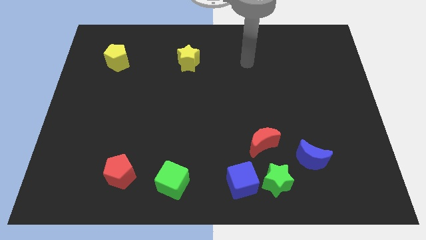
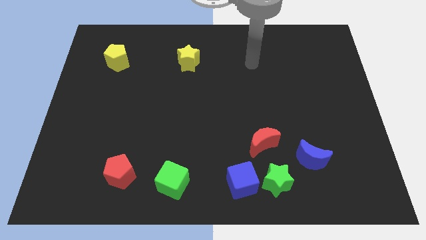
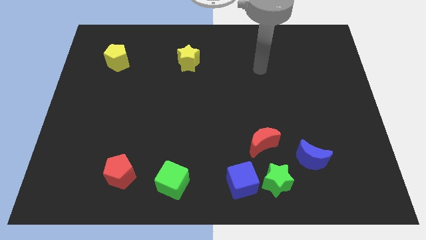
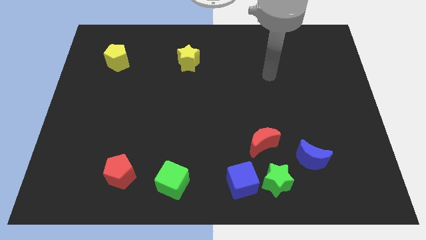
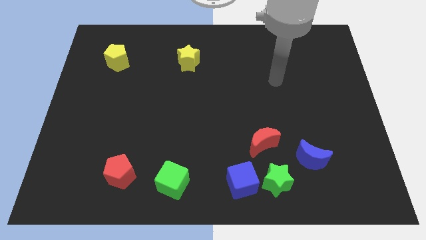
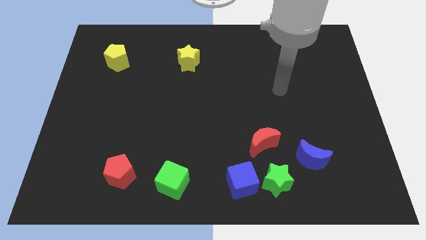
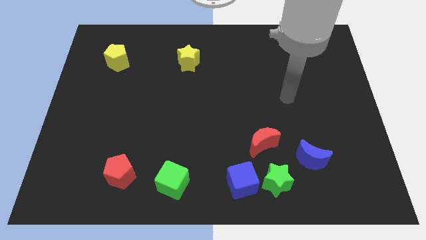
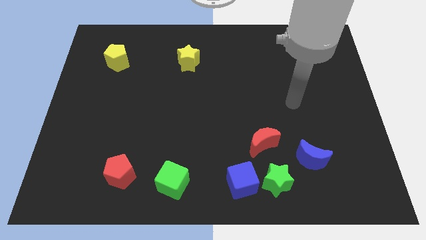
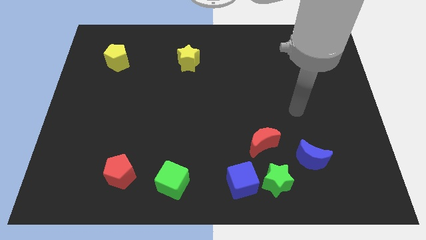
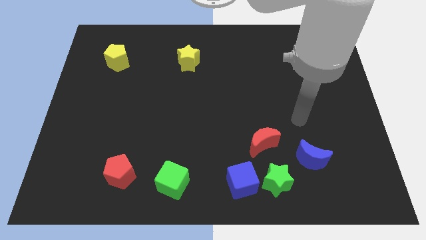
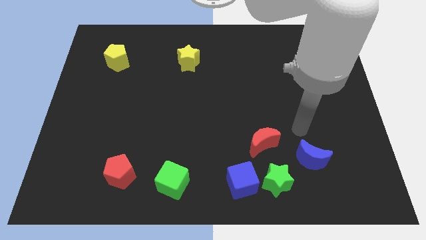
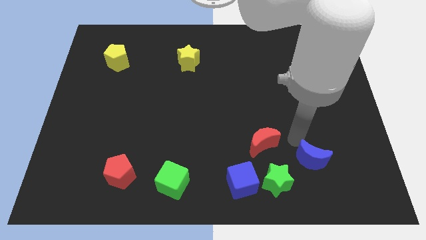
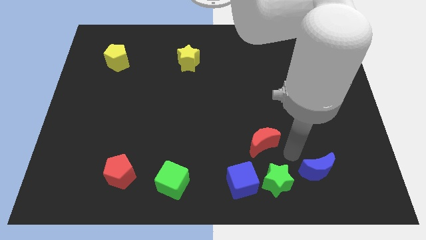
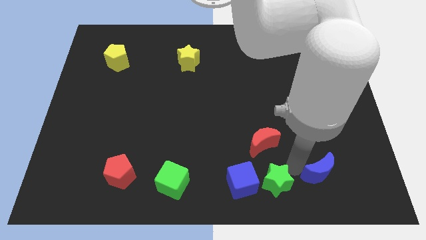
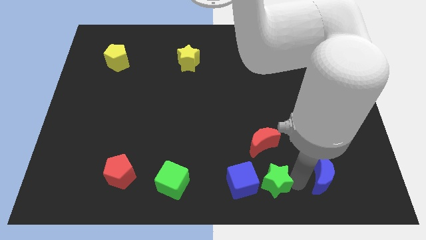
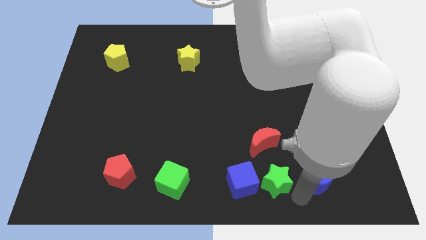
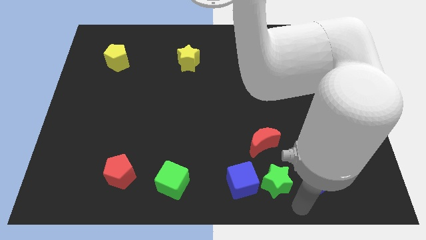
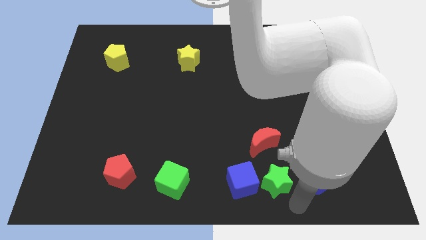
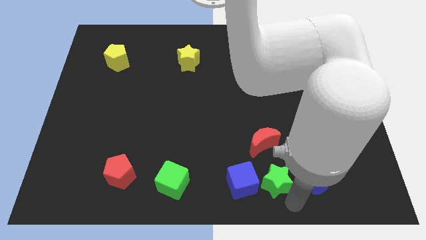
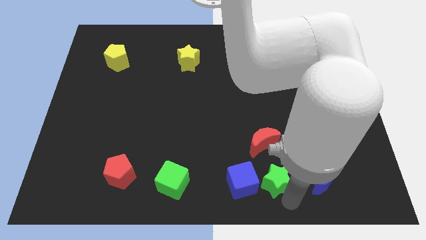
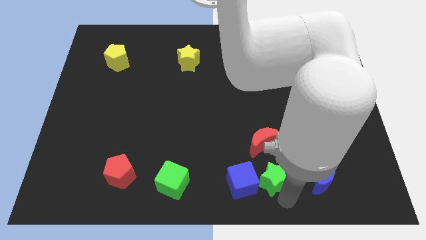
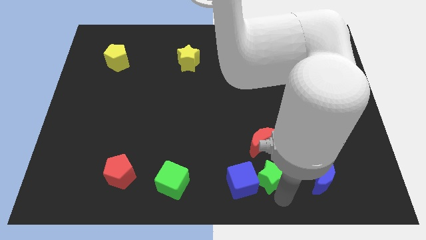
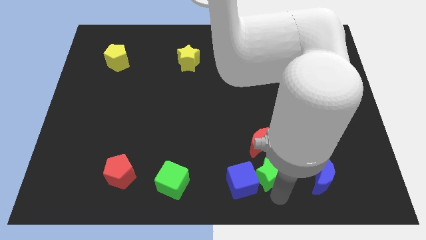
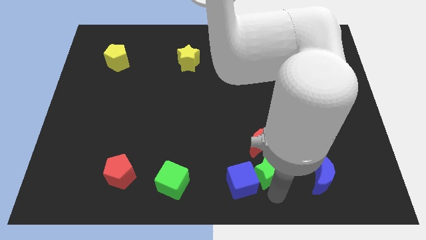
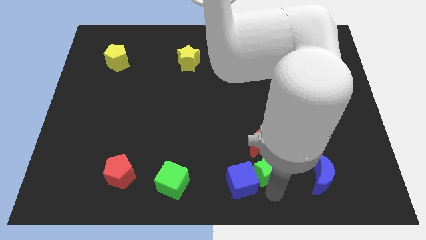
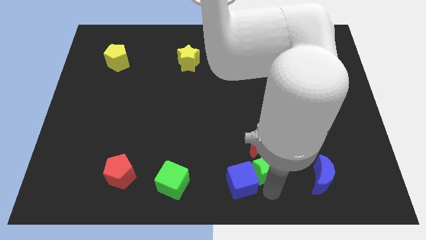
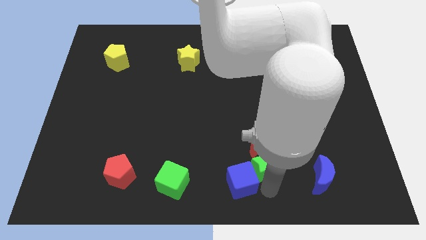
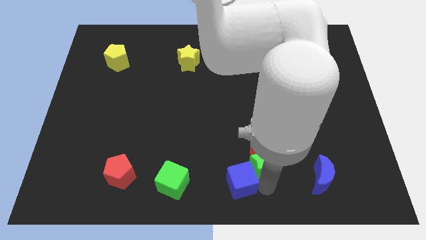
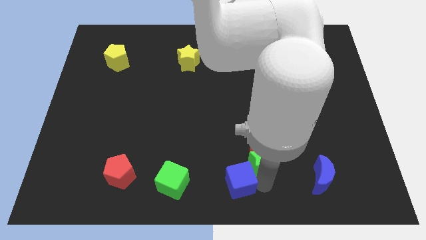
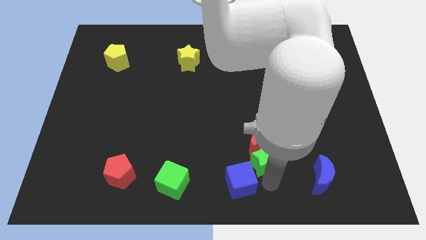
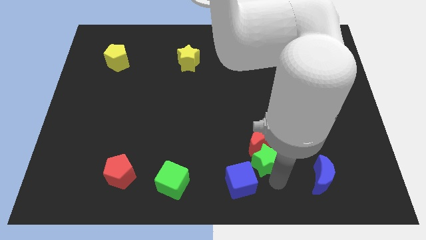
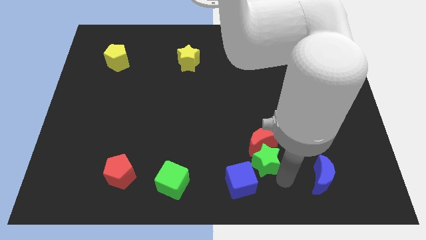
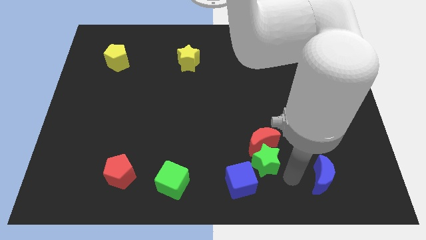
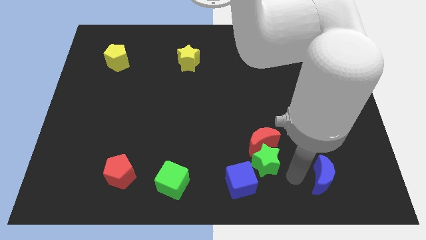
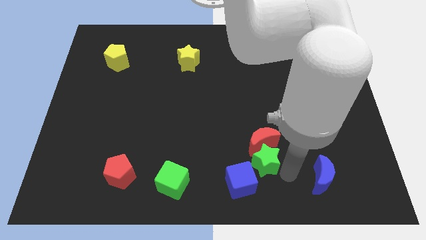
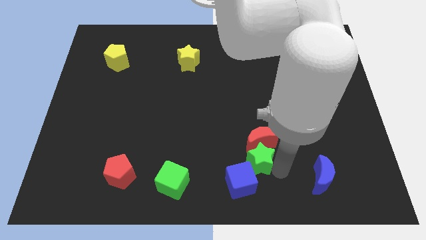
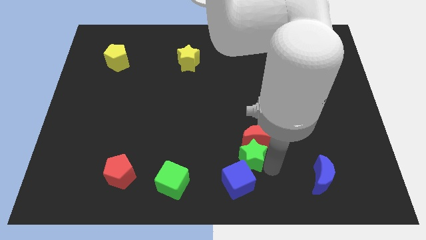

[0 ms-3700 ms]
slightly slide the green star up and then to the left

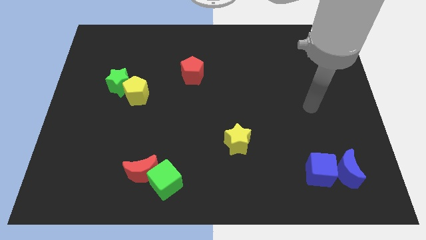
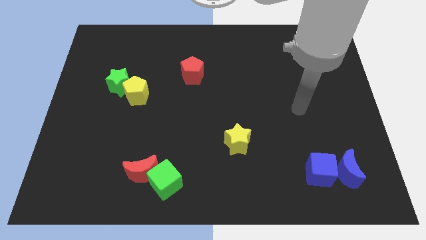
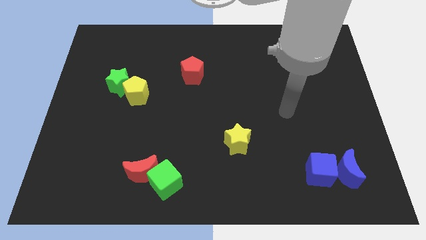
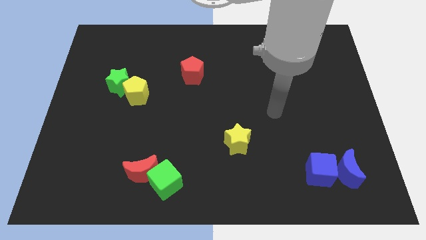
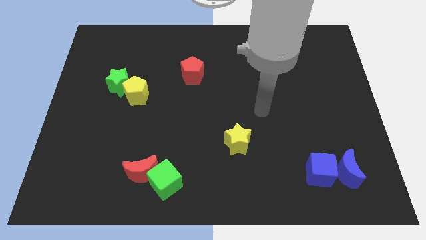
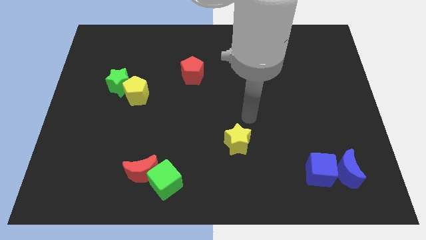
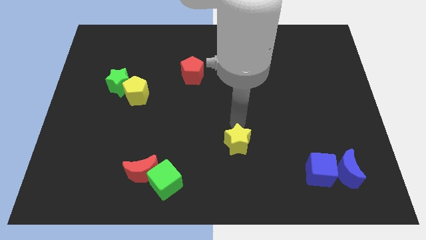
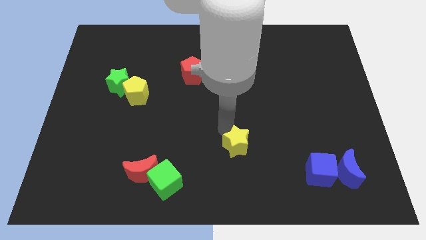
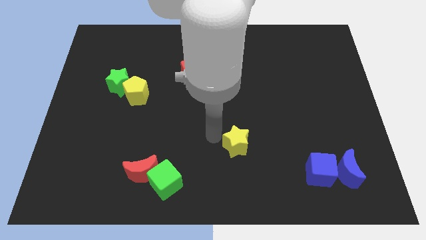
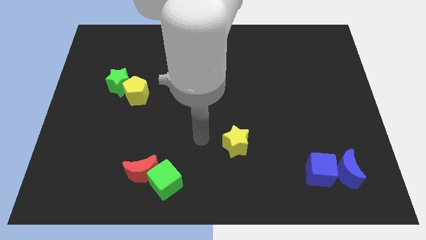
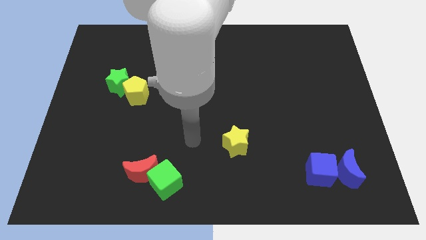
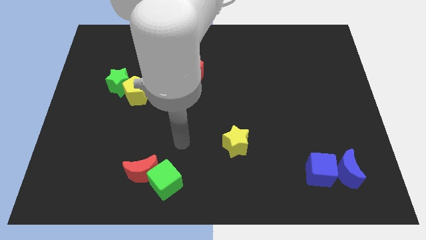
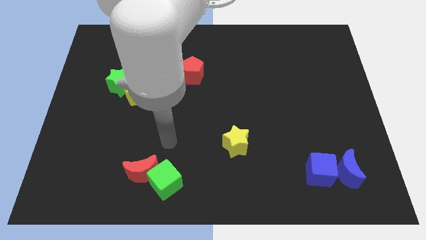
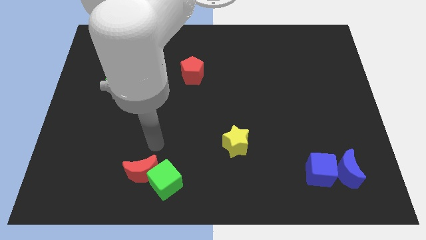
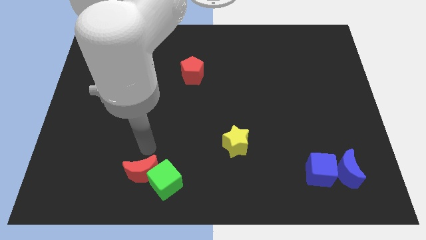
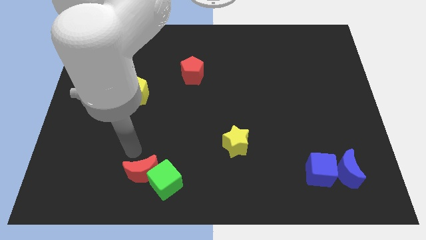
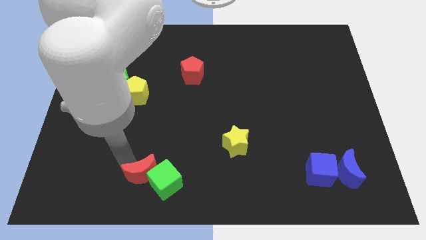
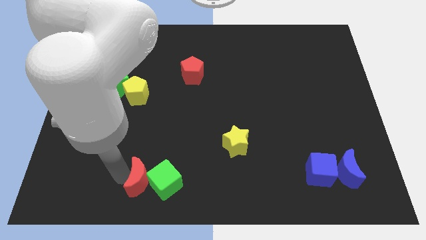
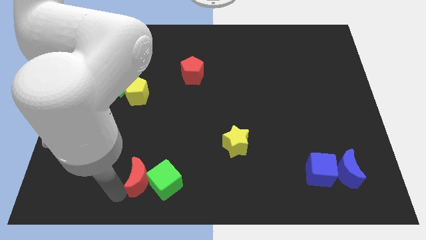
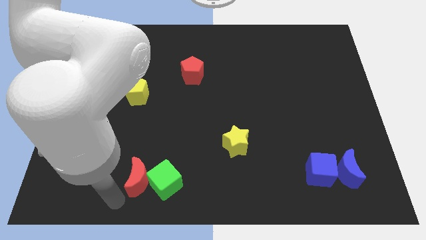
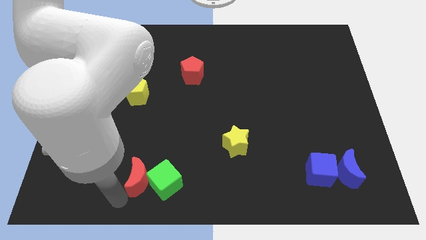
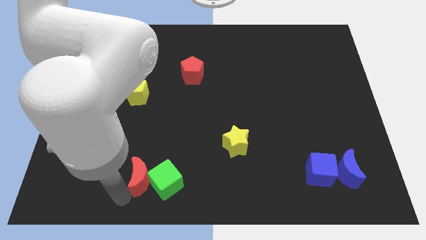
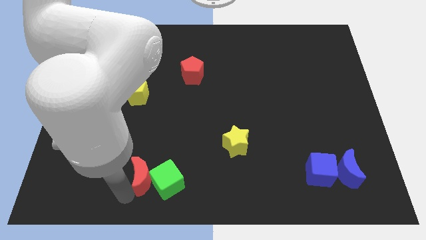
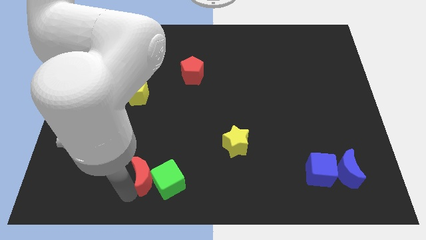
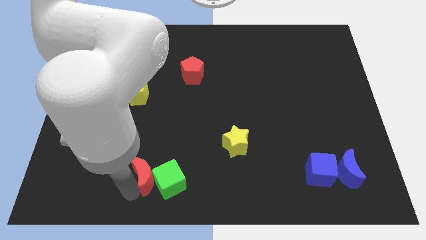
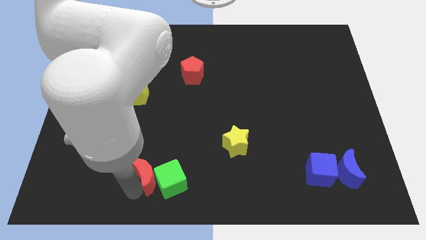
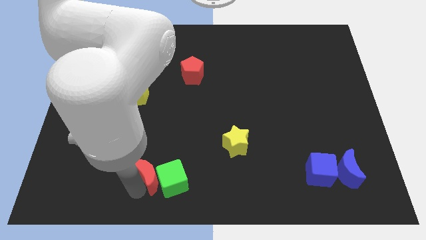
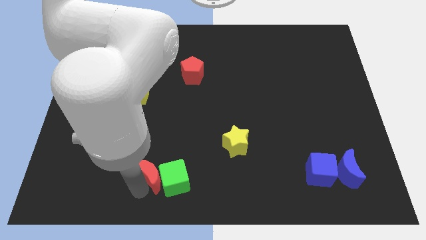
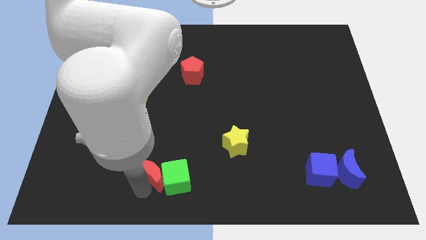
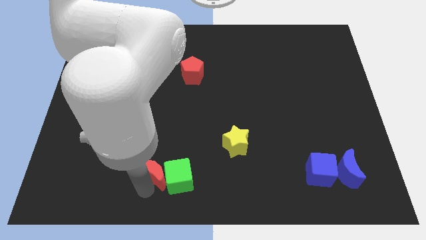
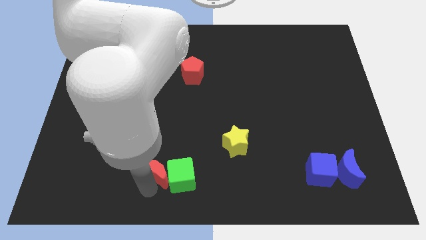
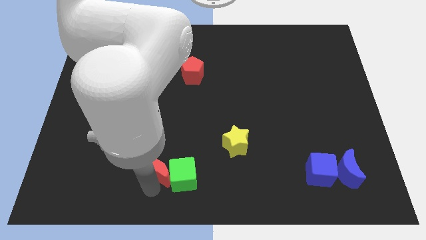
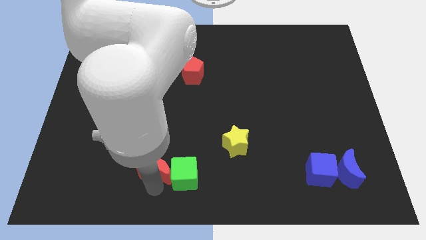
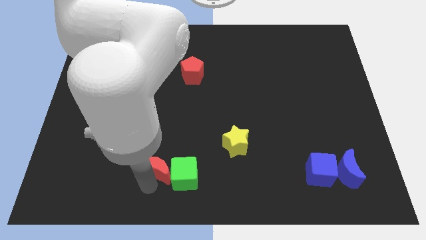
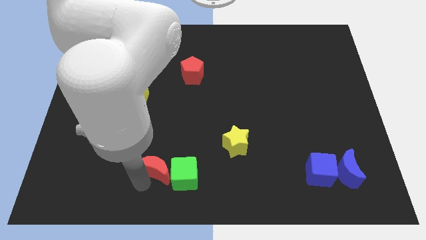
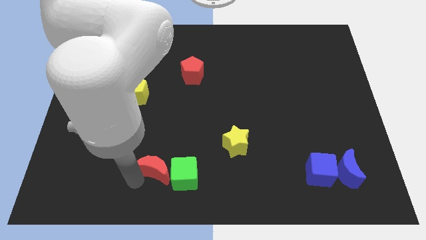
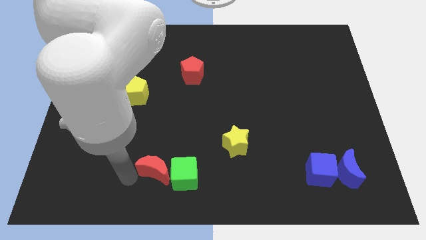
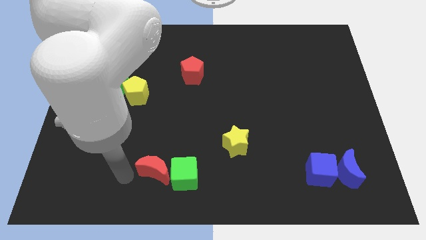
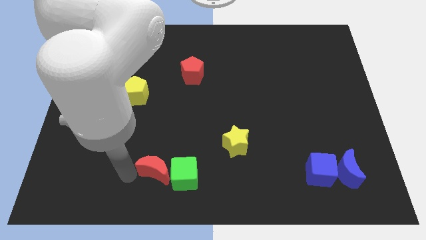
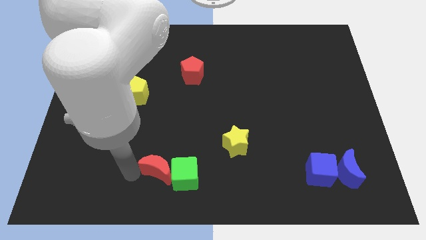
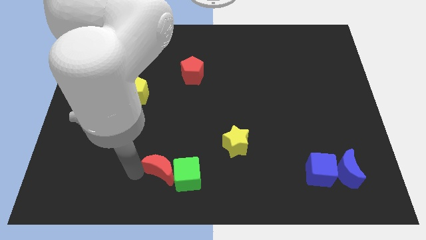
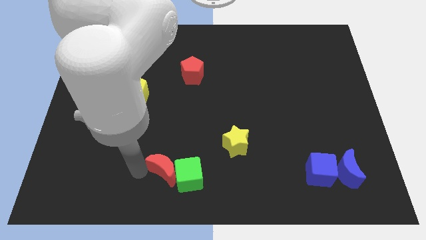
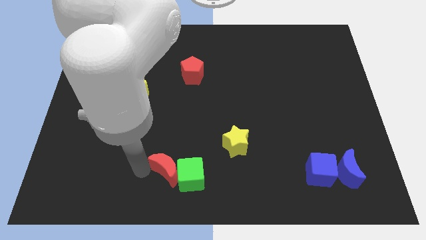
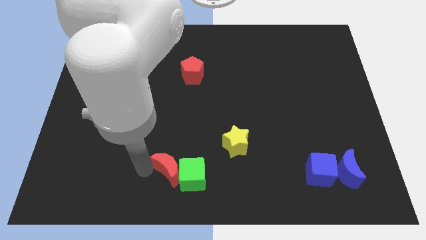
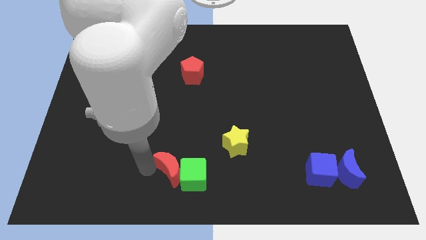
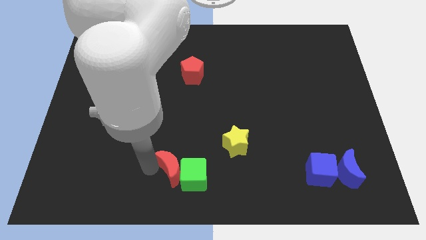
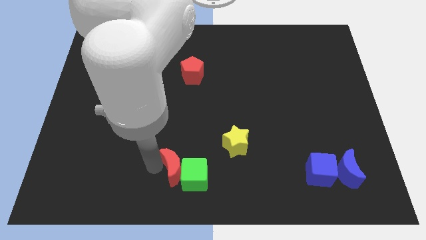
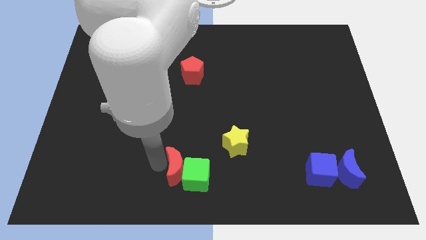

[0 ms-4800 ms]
slide the red moon a bit to the right
